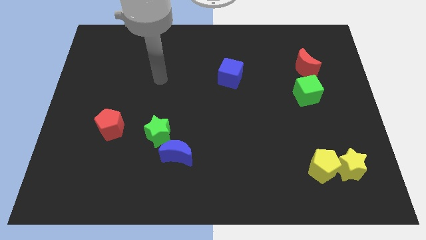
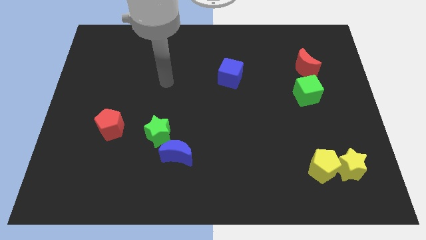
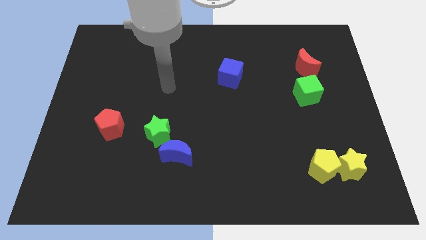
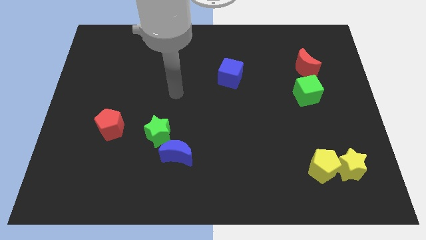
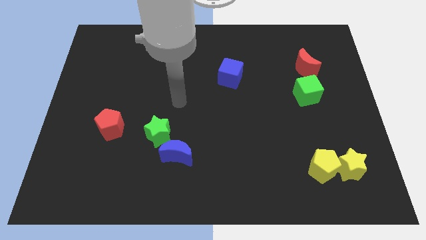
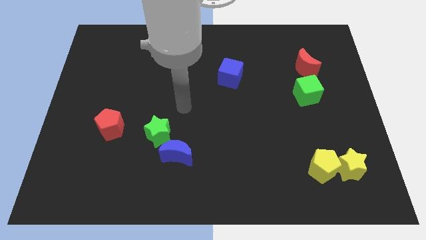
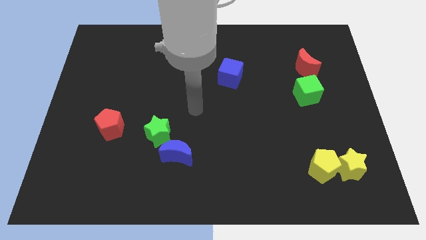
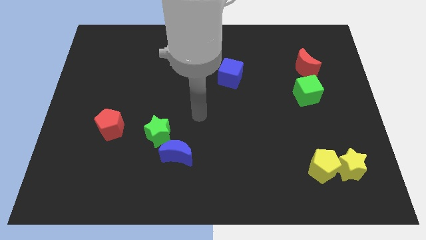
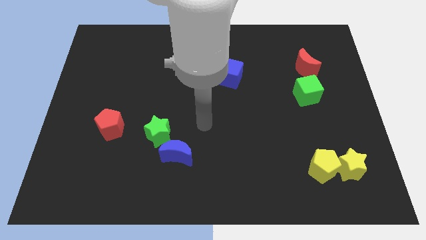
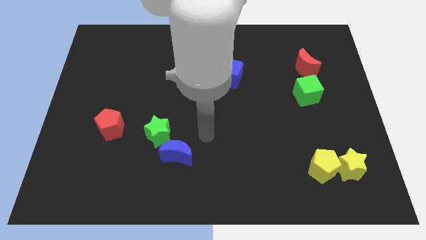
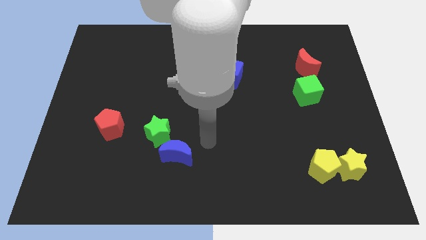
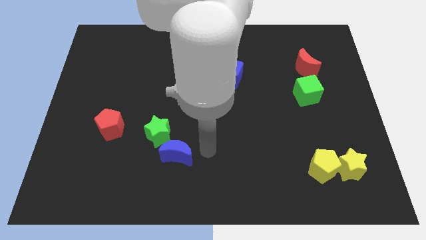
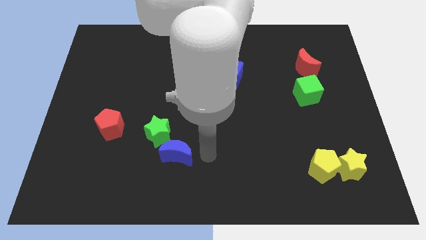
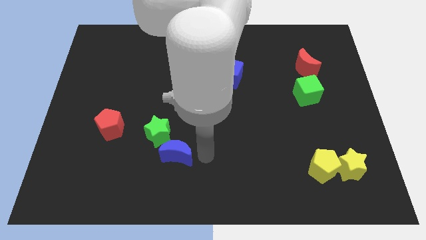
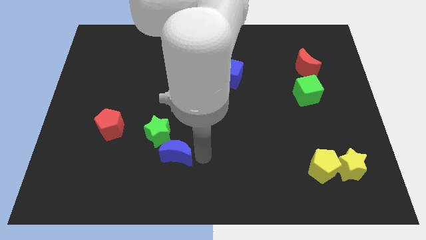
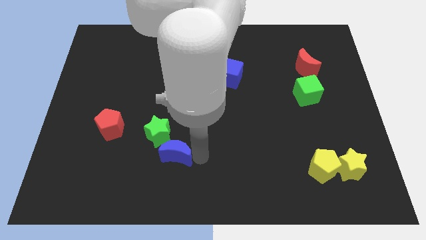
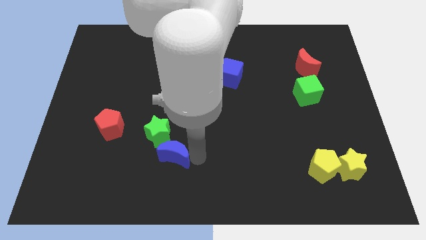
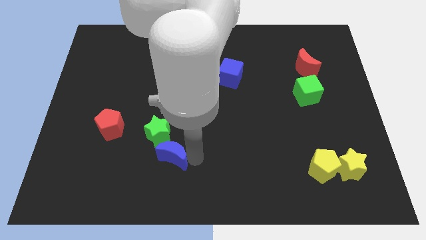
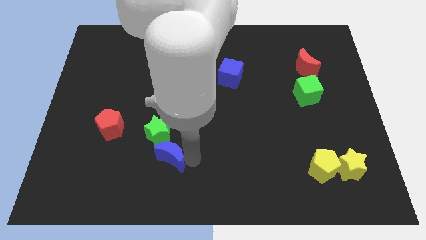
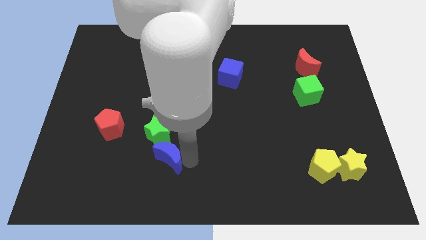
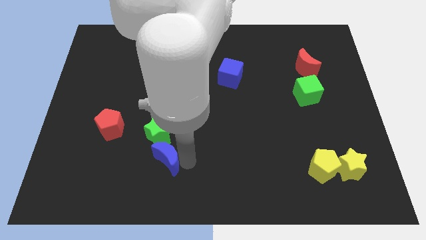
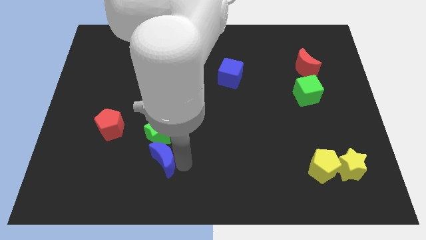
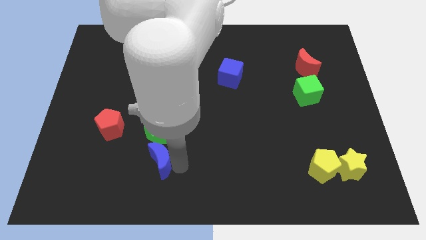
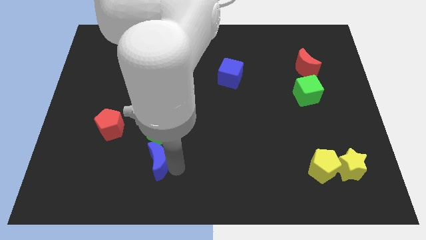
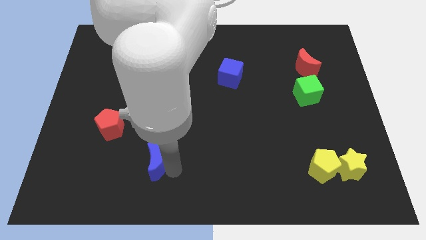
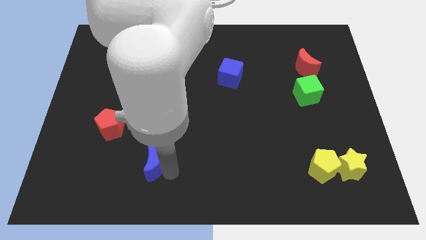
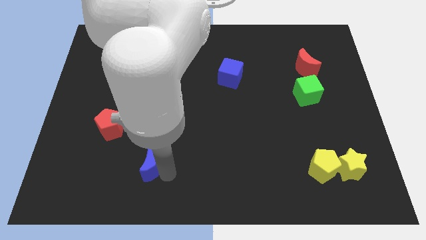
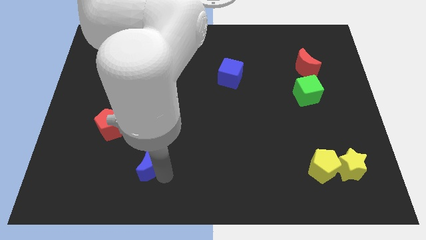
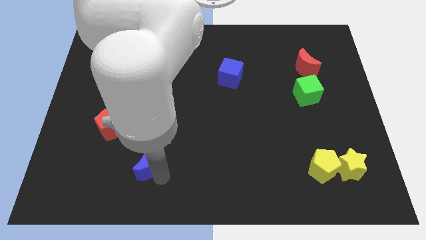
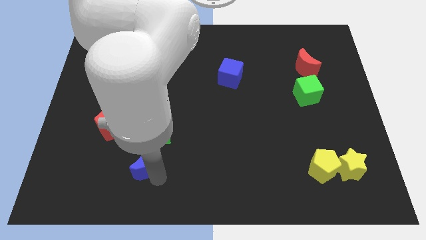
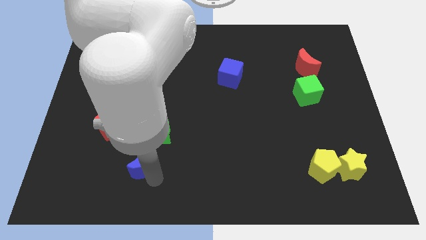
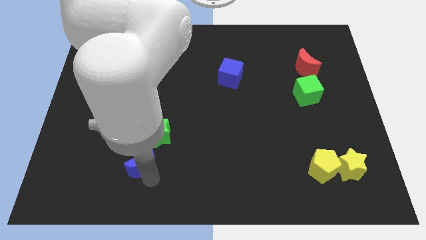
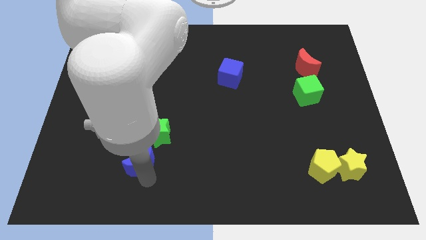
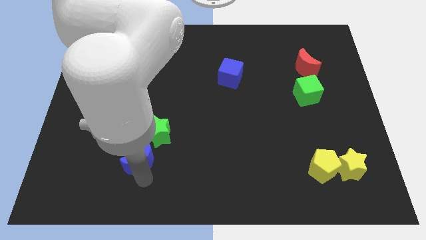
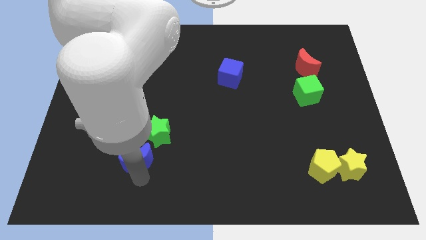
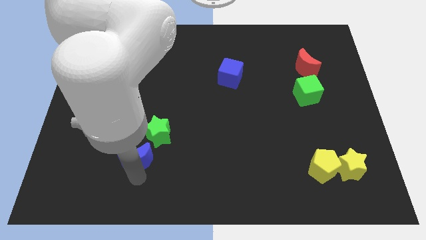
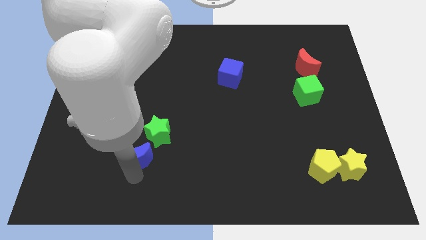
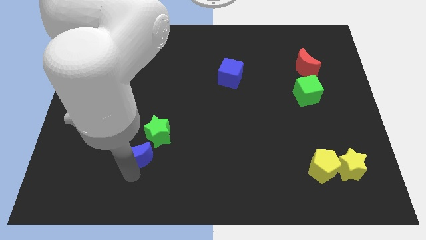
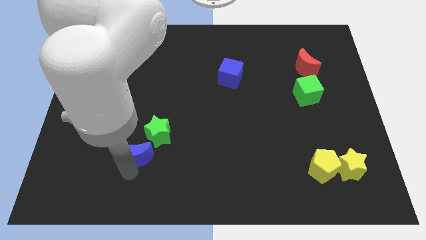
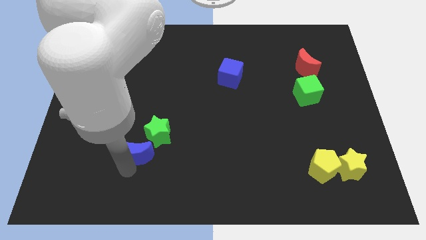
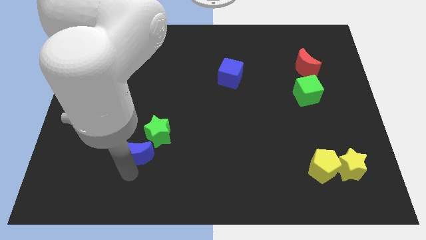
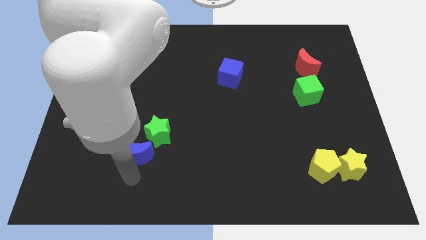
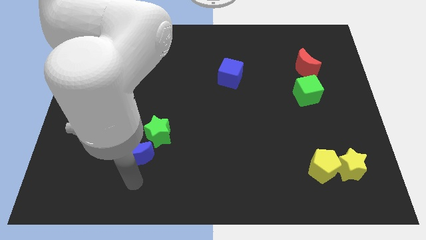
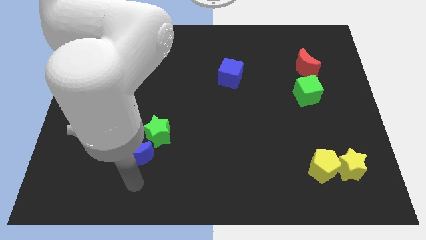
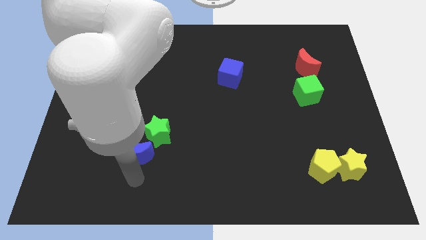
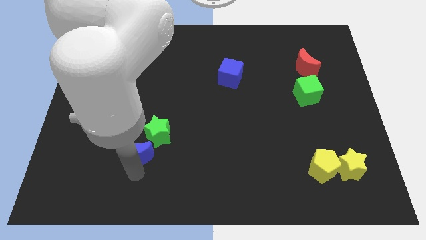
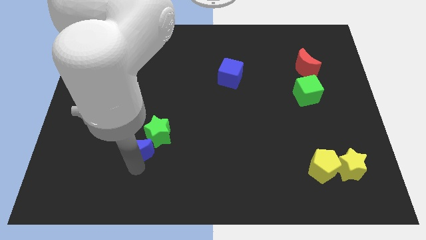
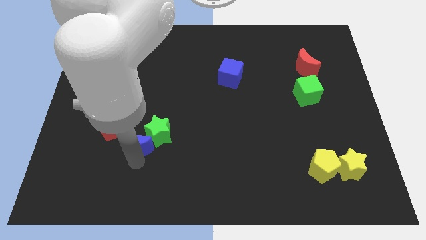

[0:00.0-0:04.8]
push the blue moon upwards and to the left slightly

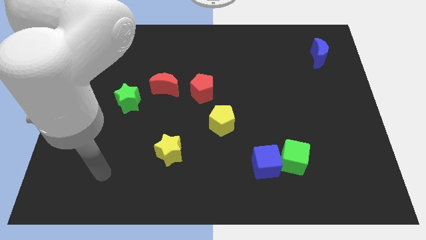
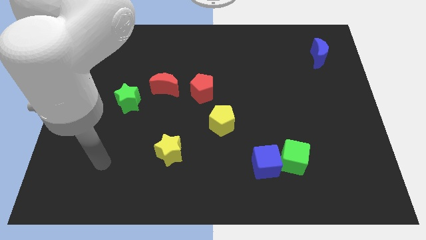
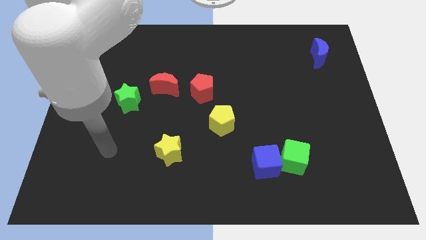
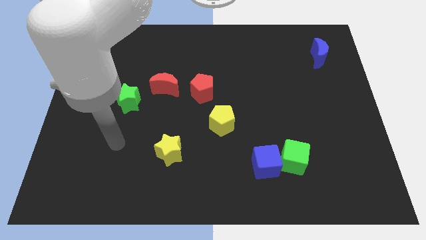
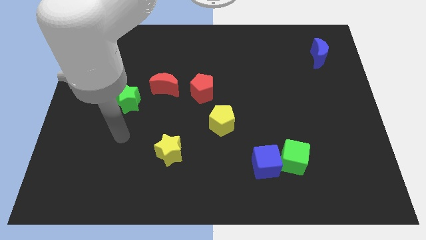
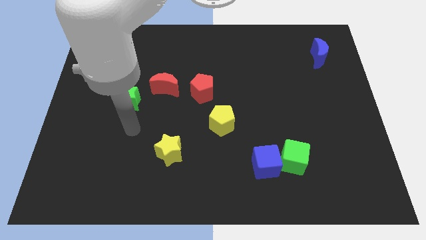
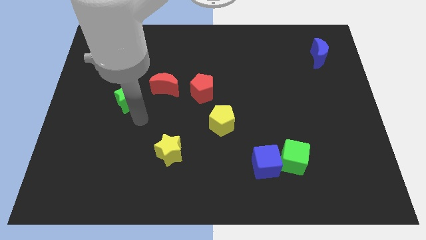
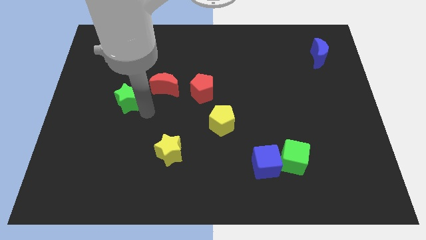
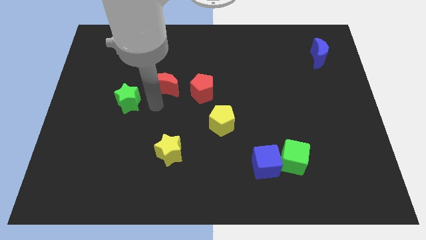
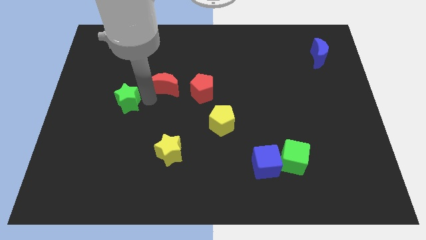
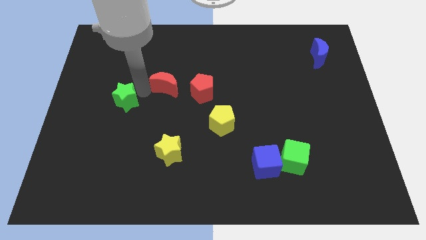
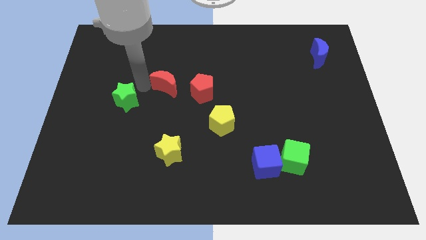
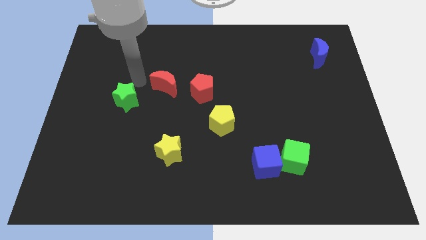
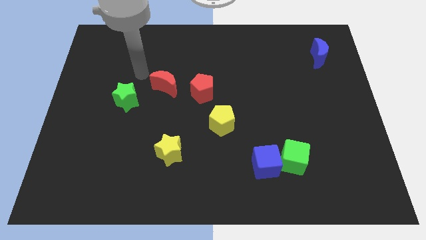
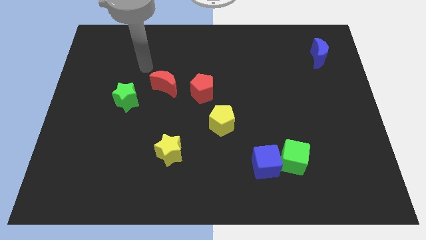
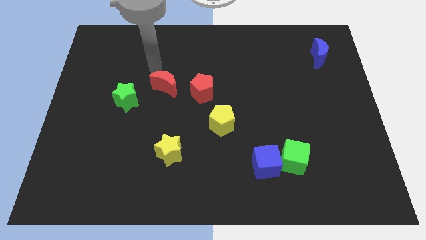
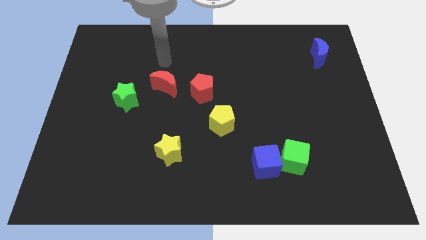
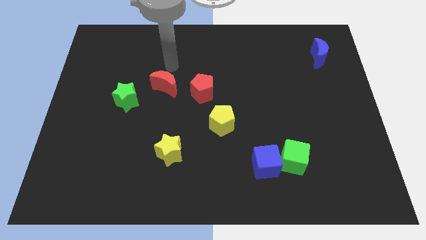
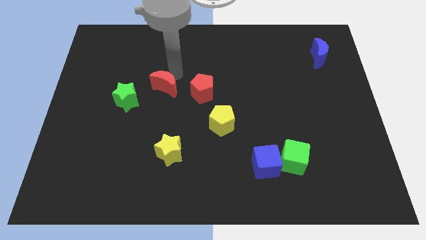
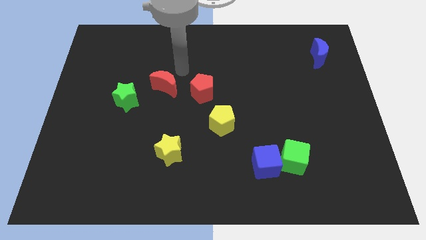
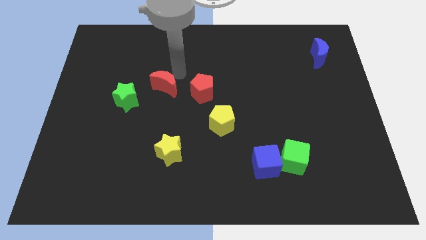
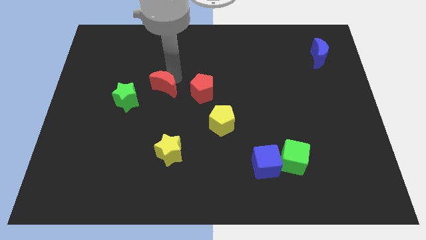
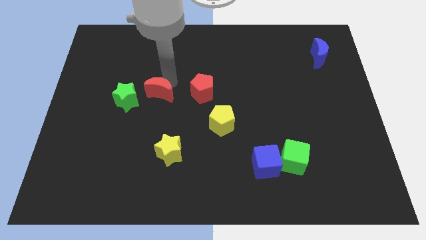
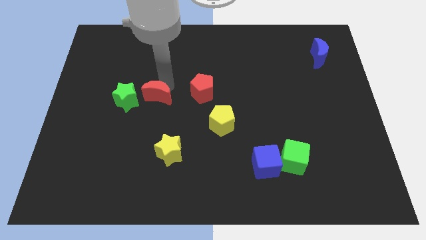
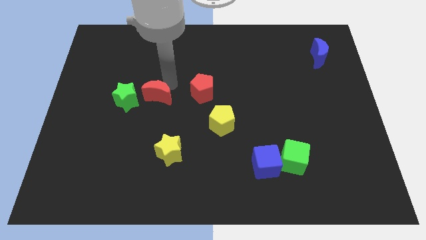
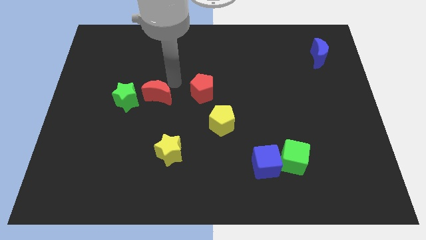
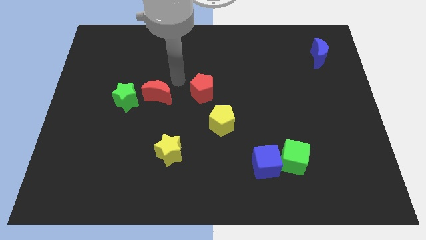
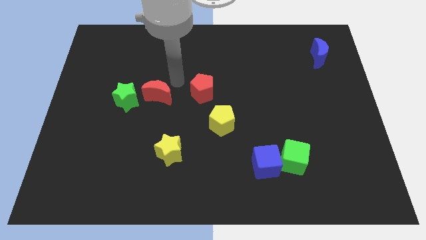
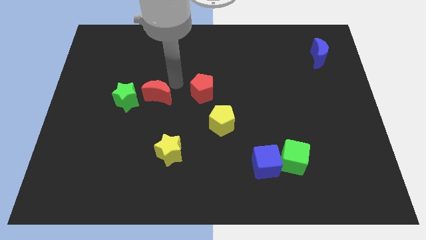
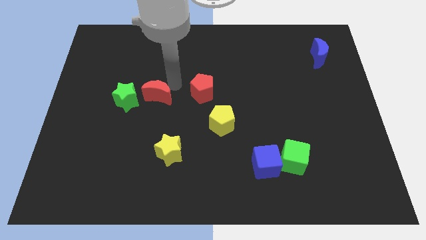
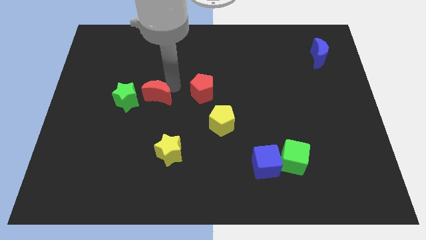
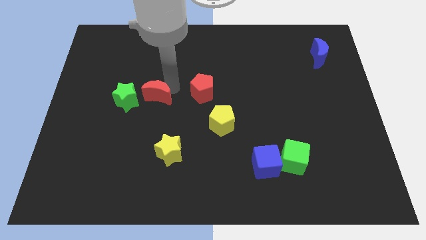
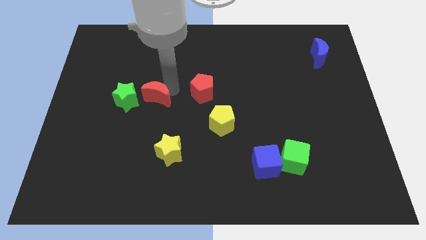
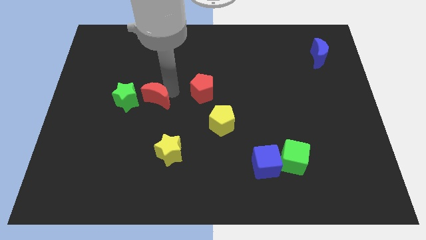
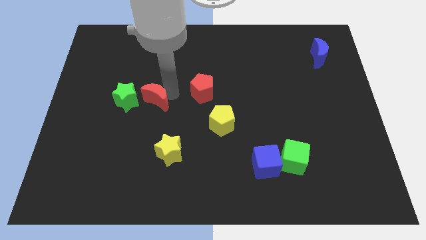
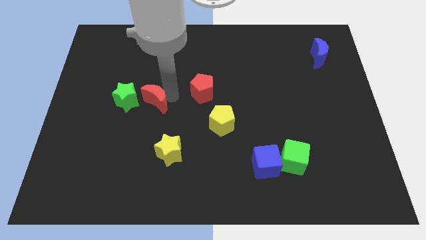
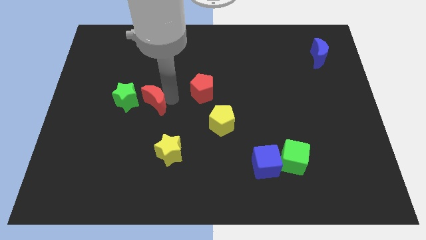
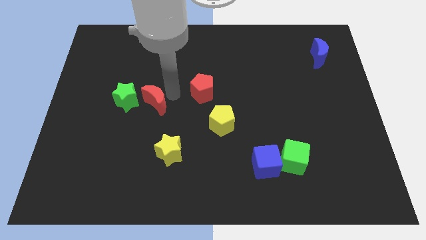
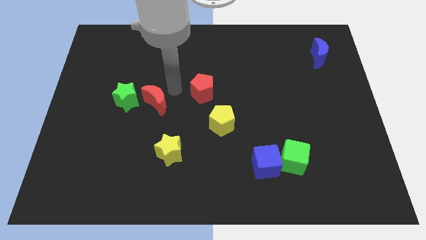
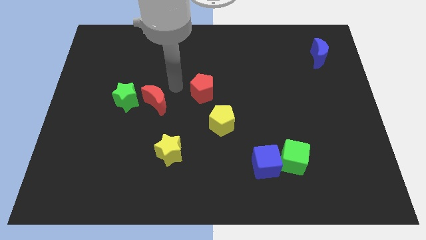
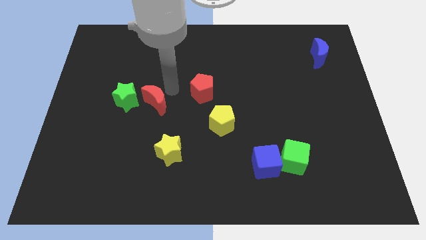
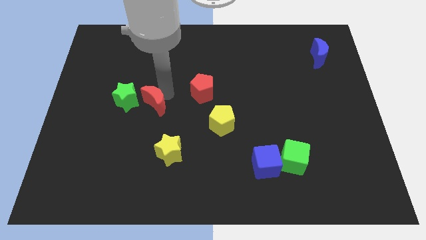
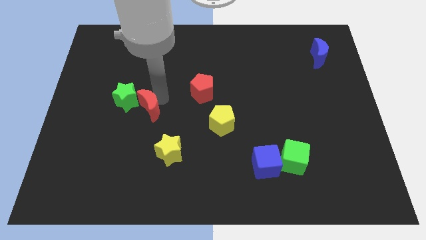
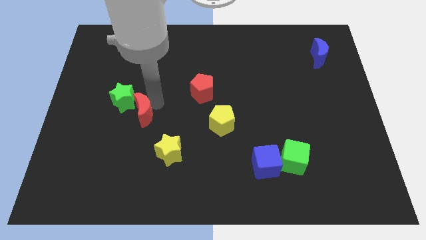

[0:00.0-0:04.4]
slightly slide the red moon downwards and then to the left
